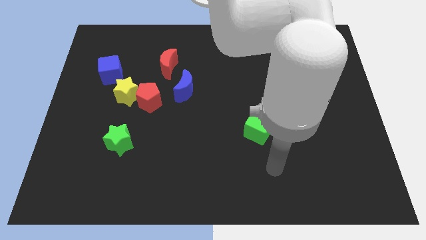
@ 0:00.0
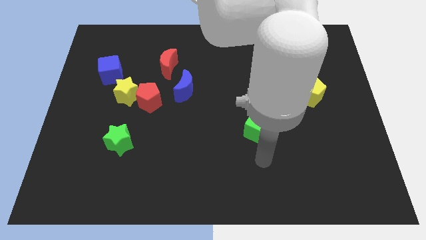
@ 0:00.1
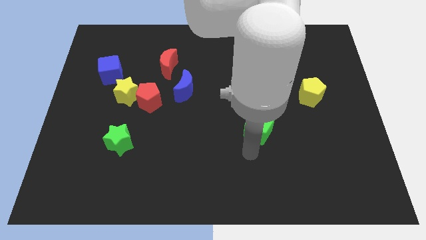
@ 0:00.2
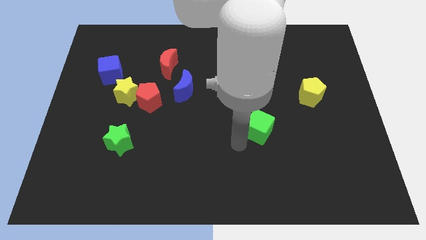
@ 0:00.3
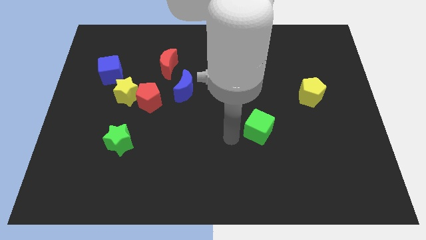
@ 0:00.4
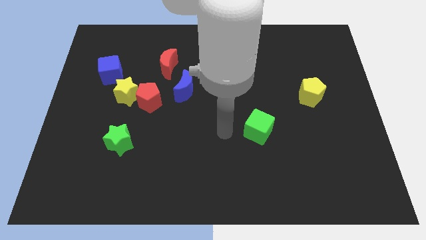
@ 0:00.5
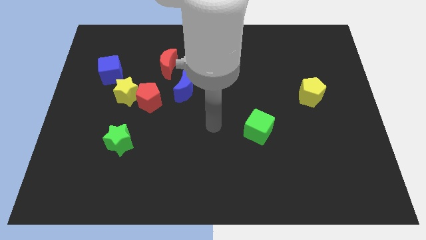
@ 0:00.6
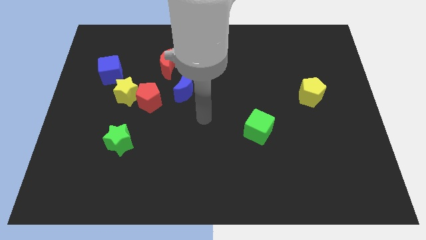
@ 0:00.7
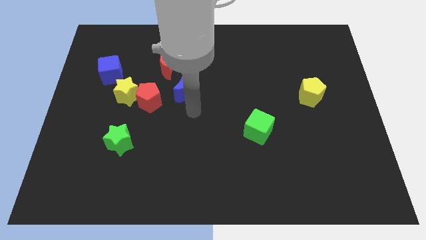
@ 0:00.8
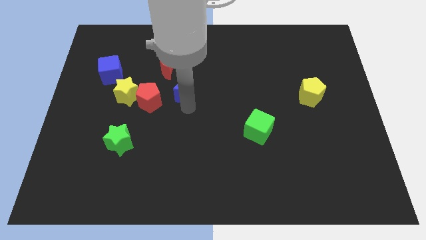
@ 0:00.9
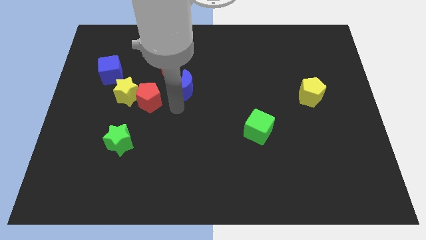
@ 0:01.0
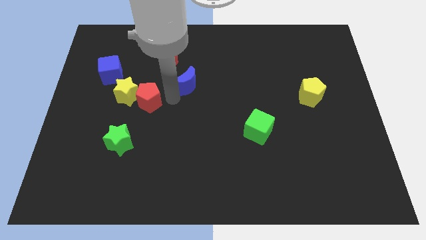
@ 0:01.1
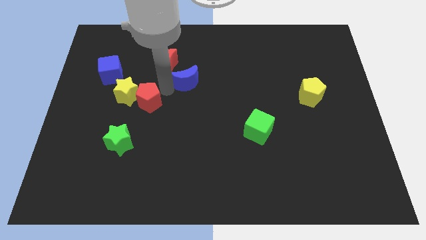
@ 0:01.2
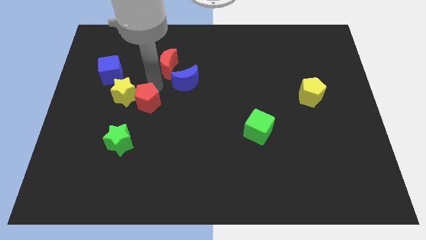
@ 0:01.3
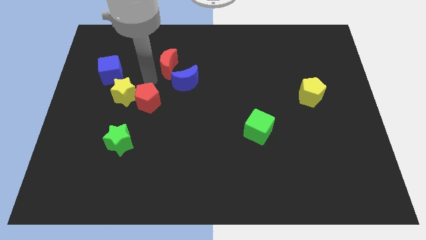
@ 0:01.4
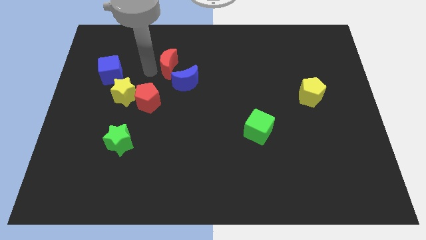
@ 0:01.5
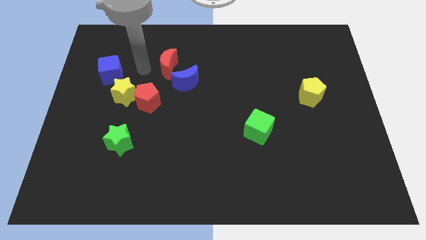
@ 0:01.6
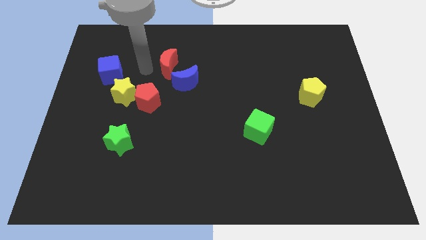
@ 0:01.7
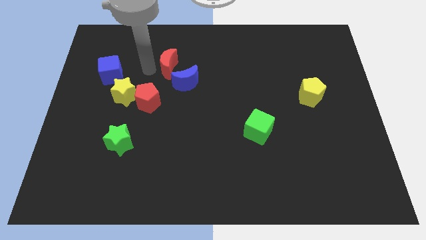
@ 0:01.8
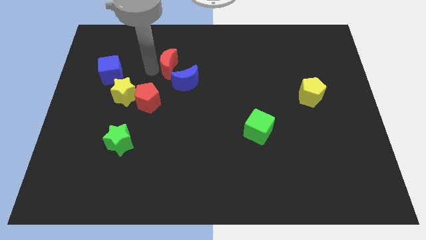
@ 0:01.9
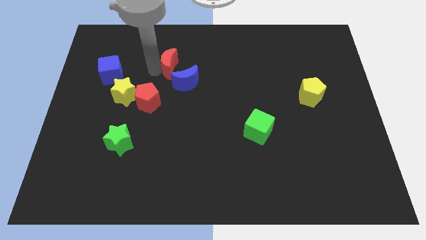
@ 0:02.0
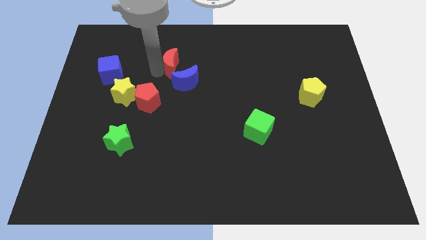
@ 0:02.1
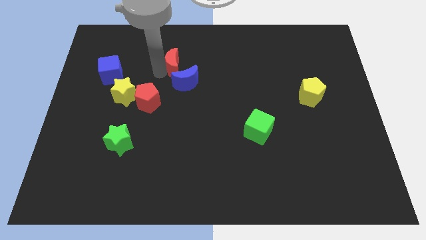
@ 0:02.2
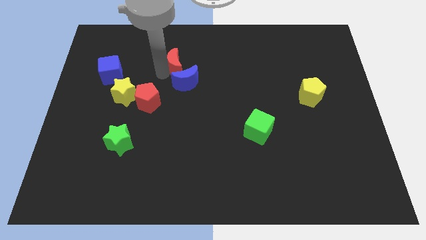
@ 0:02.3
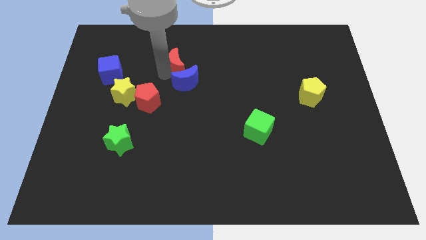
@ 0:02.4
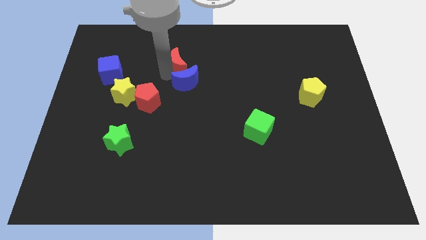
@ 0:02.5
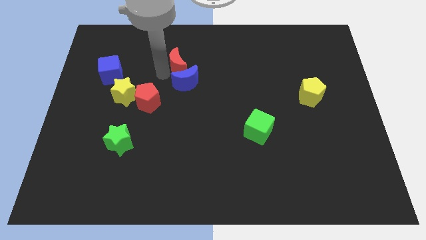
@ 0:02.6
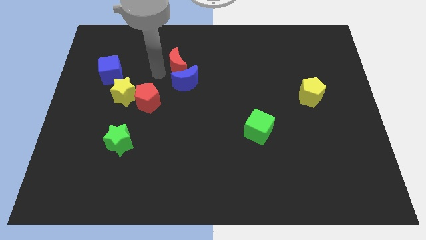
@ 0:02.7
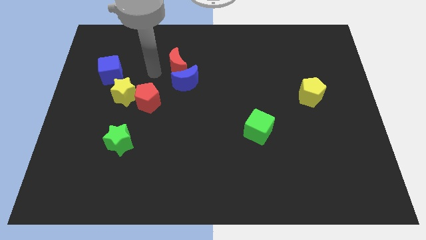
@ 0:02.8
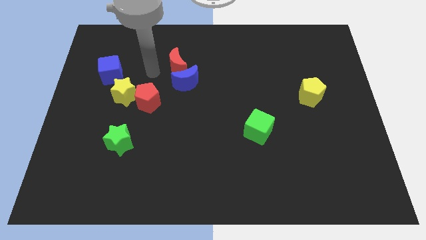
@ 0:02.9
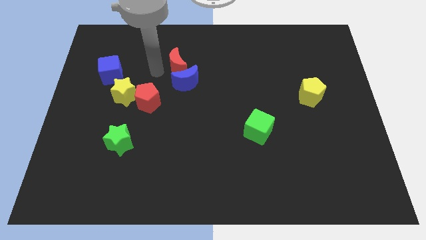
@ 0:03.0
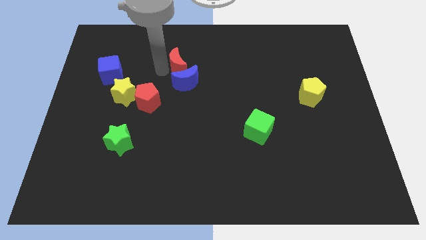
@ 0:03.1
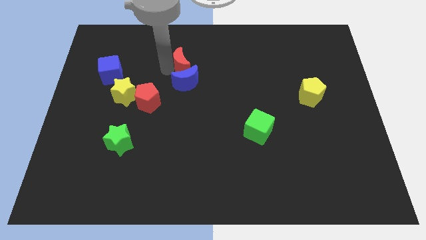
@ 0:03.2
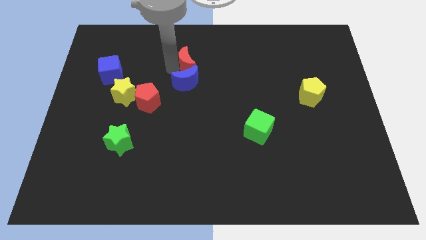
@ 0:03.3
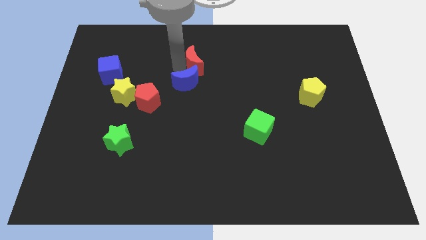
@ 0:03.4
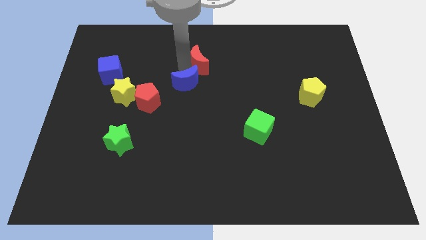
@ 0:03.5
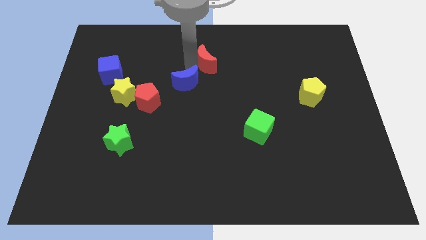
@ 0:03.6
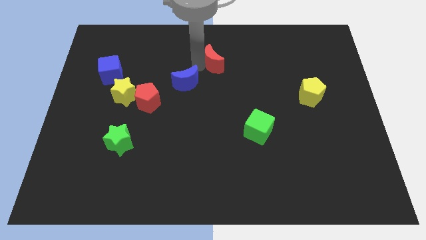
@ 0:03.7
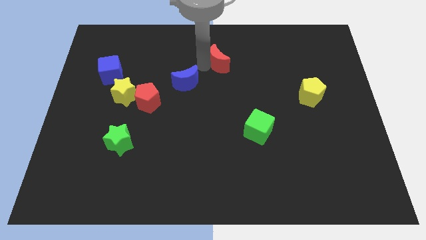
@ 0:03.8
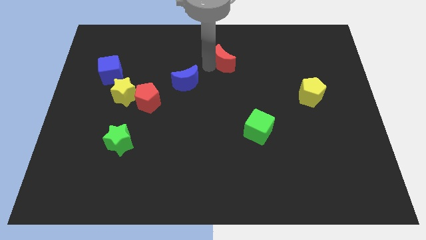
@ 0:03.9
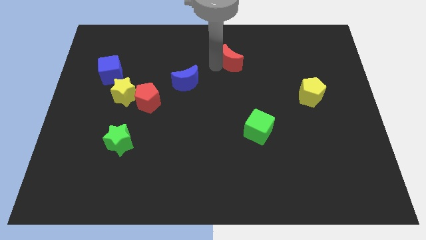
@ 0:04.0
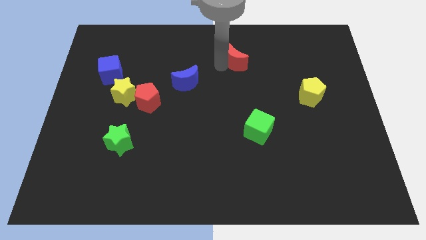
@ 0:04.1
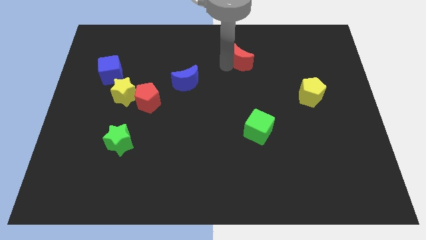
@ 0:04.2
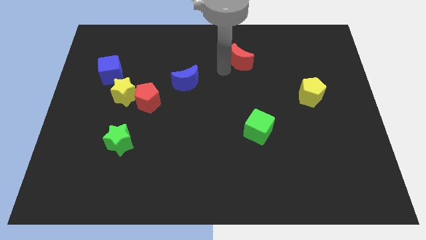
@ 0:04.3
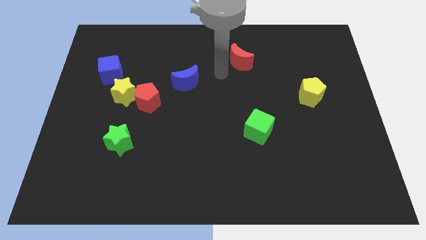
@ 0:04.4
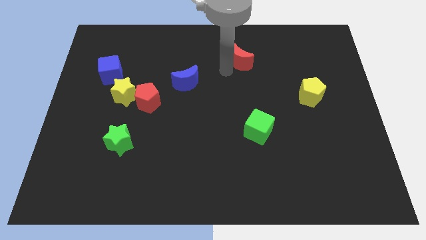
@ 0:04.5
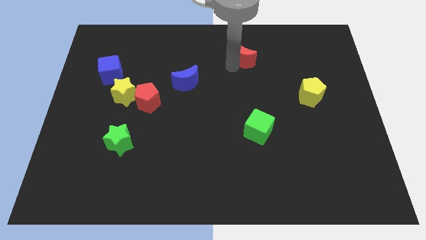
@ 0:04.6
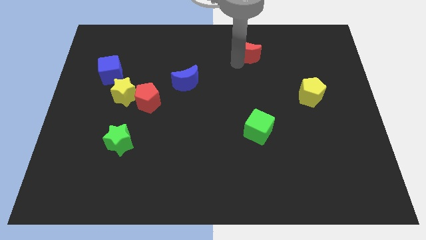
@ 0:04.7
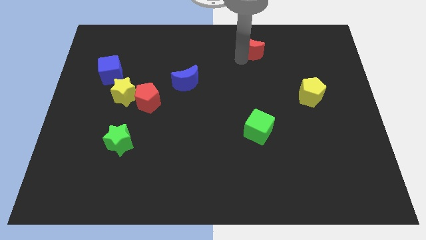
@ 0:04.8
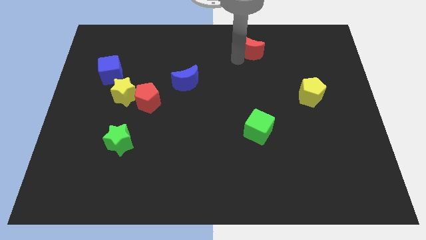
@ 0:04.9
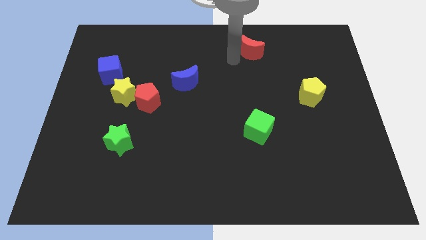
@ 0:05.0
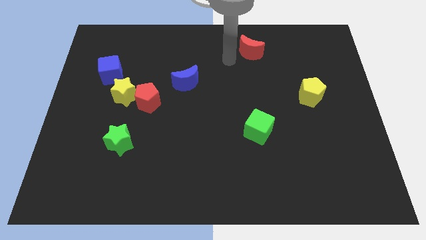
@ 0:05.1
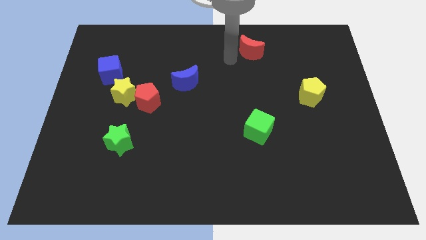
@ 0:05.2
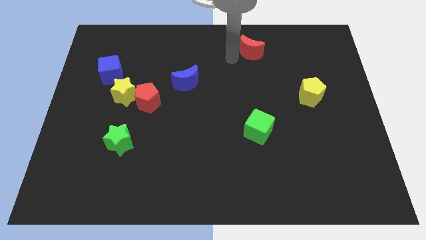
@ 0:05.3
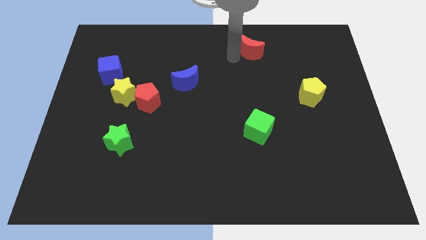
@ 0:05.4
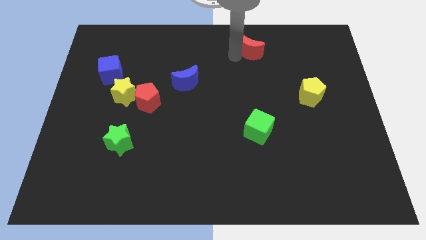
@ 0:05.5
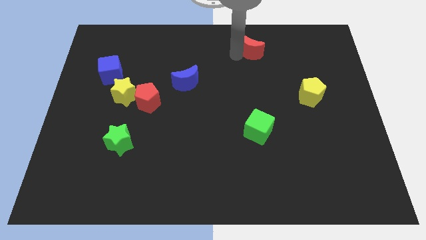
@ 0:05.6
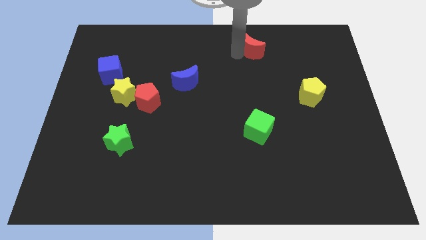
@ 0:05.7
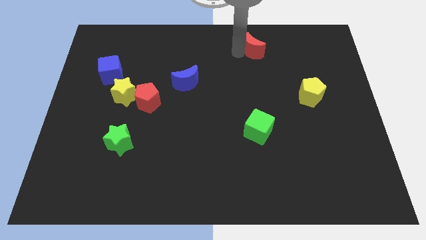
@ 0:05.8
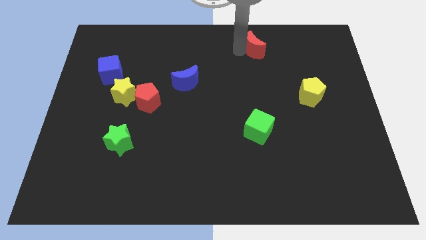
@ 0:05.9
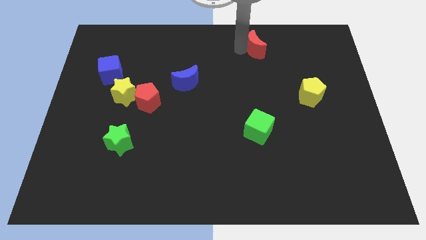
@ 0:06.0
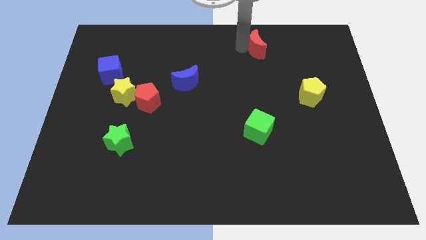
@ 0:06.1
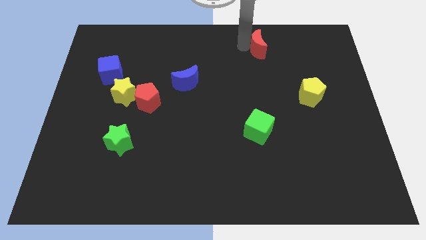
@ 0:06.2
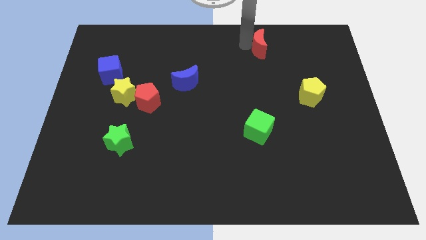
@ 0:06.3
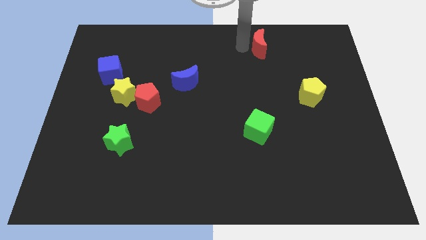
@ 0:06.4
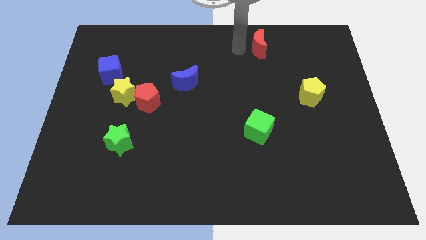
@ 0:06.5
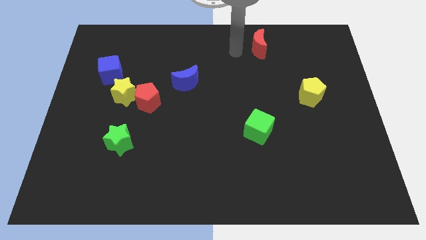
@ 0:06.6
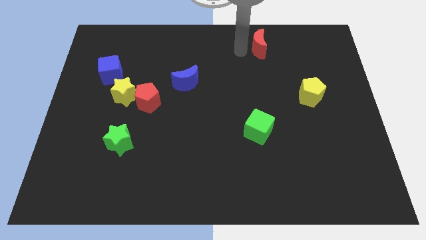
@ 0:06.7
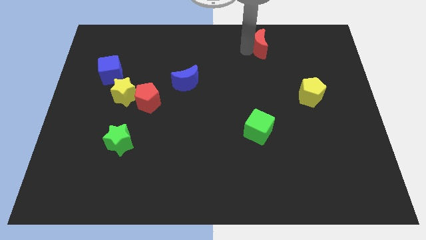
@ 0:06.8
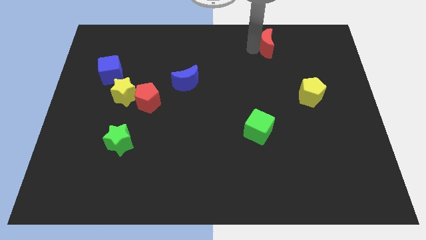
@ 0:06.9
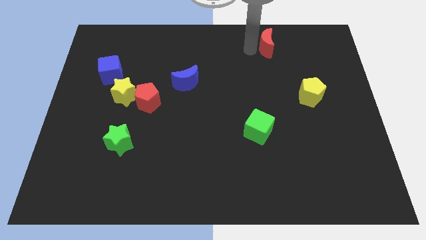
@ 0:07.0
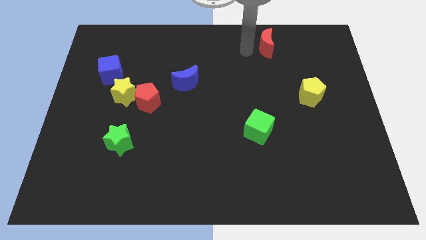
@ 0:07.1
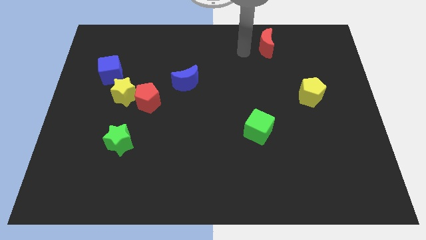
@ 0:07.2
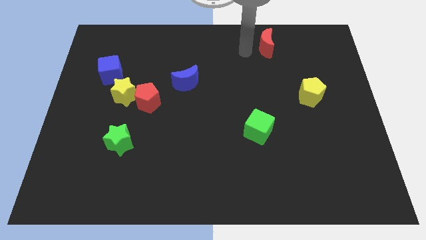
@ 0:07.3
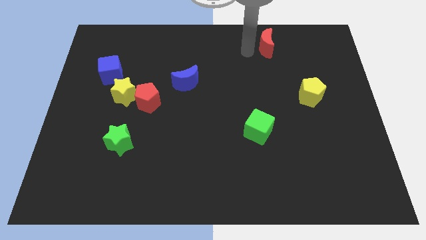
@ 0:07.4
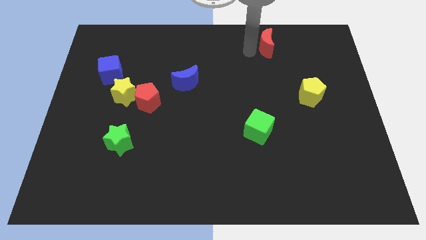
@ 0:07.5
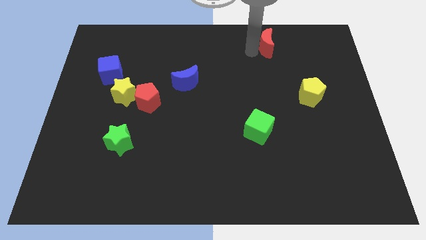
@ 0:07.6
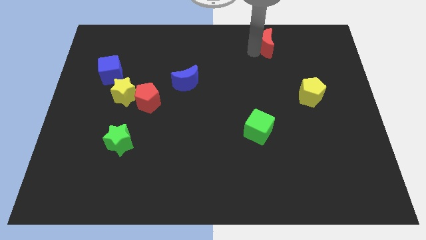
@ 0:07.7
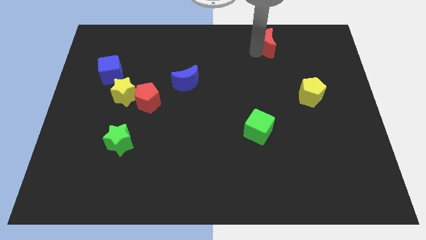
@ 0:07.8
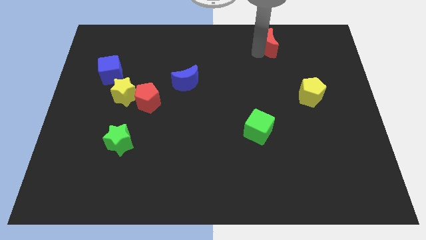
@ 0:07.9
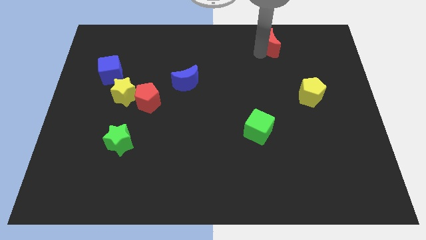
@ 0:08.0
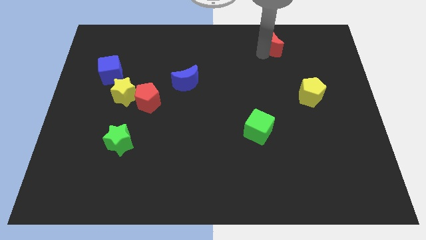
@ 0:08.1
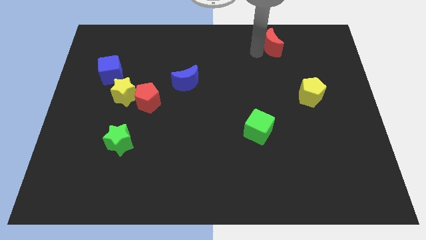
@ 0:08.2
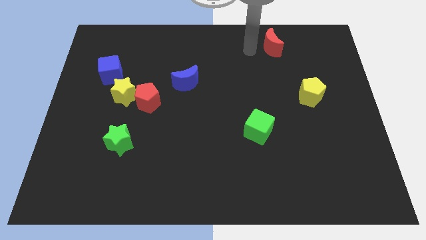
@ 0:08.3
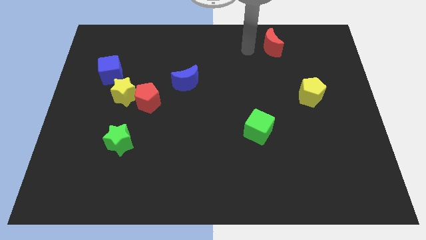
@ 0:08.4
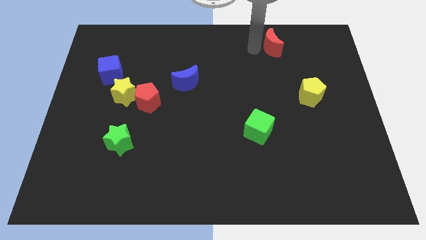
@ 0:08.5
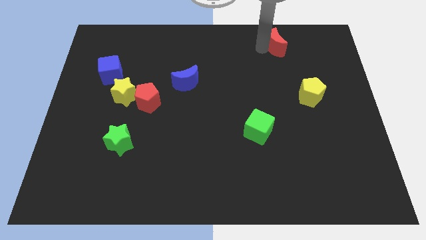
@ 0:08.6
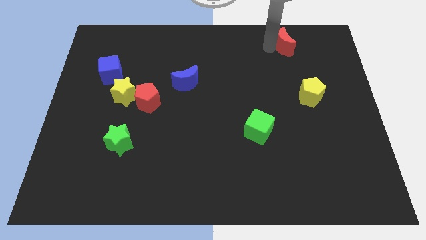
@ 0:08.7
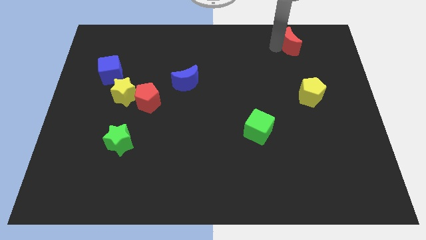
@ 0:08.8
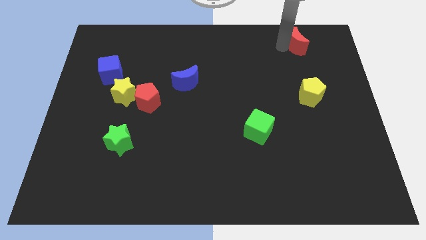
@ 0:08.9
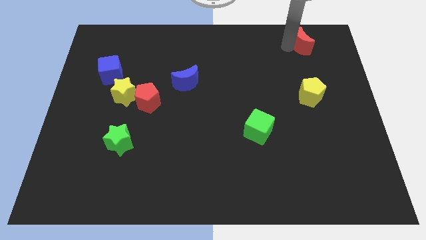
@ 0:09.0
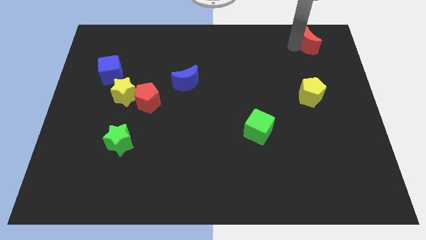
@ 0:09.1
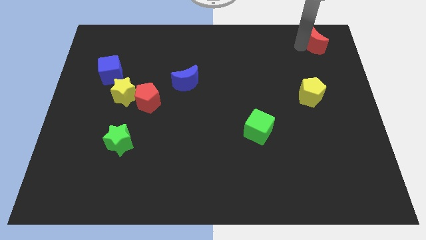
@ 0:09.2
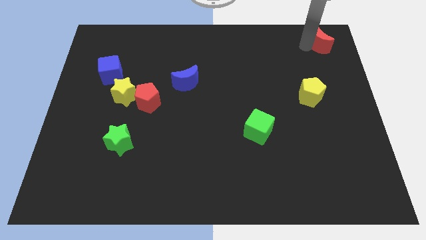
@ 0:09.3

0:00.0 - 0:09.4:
move the red moon to the top right of the board
